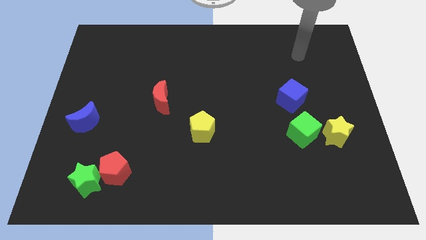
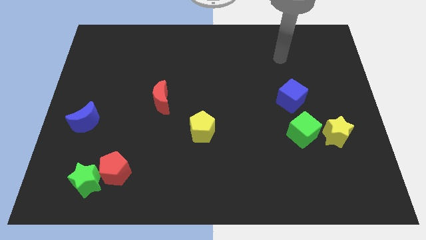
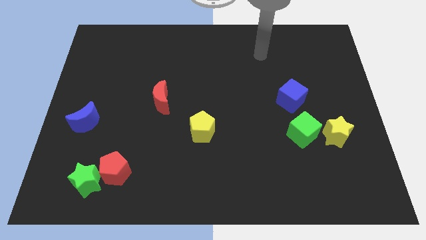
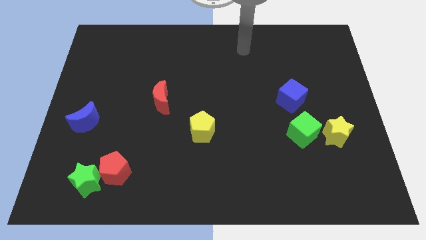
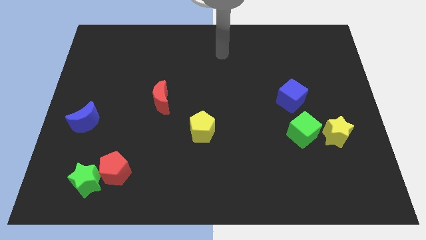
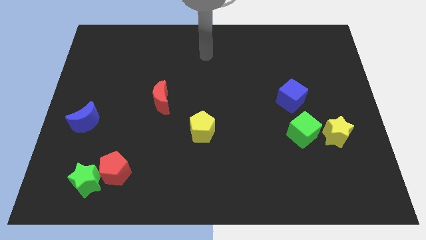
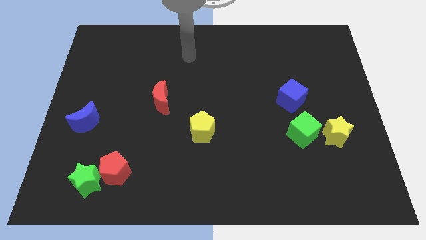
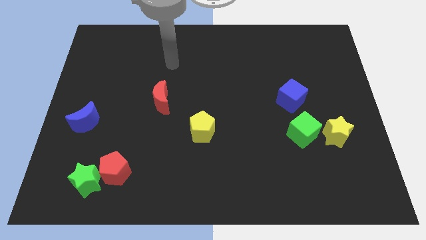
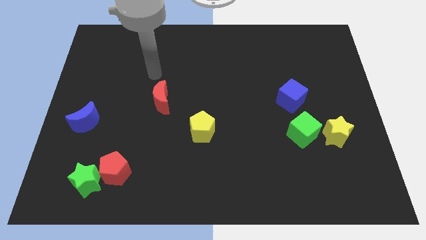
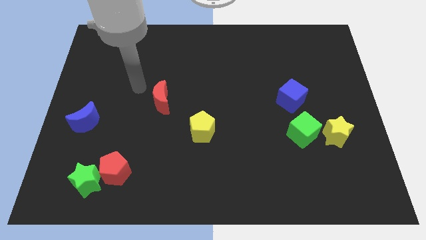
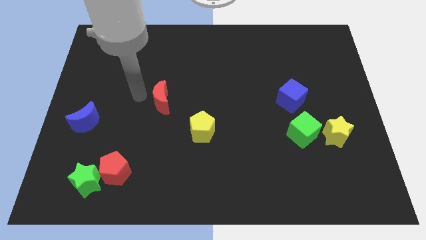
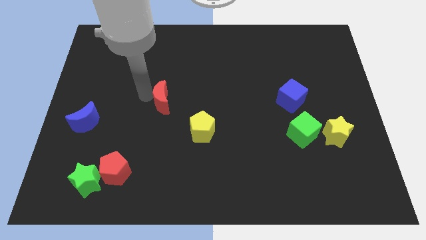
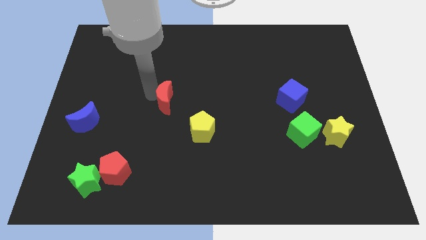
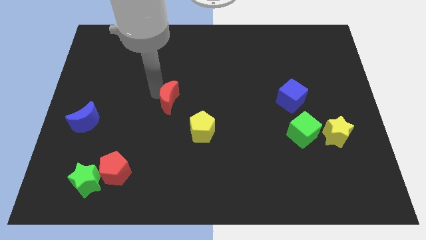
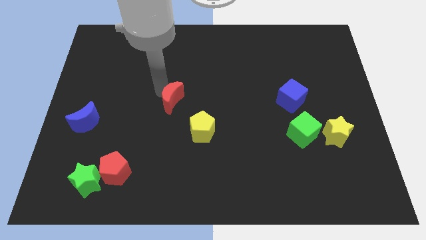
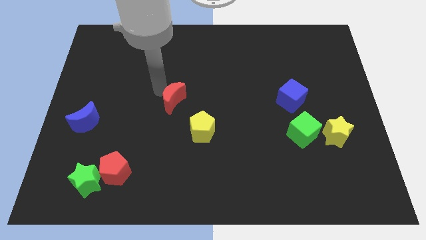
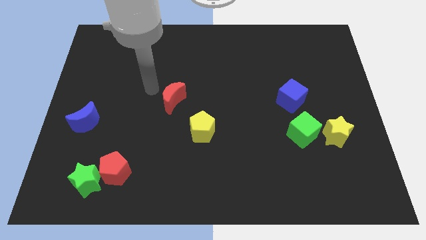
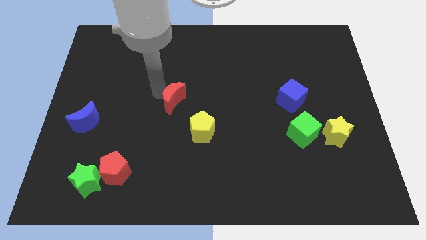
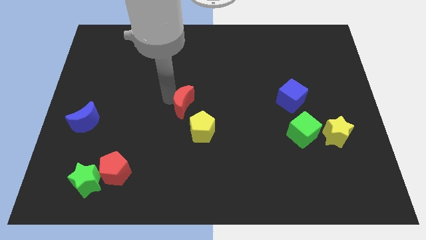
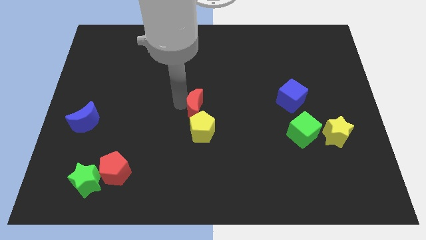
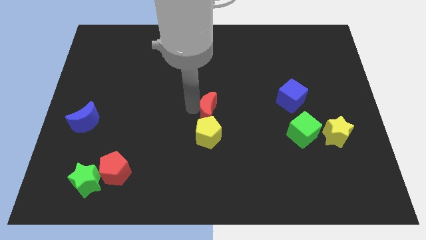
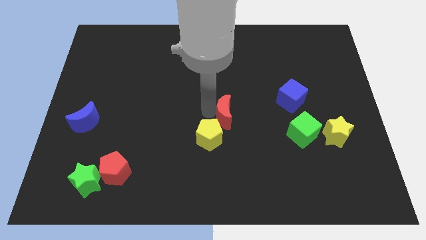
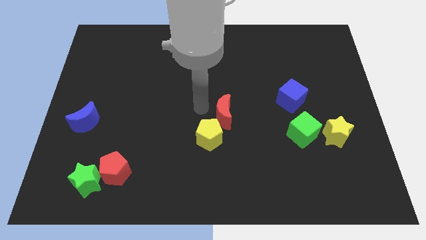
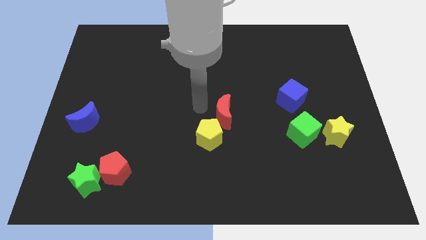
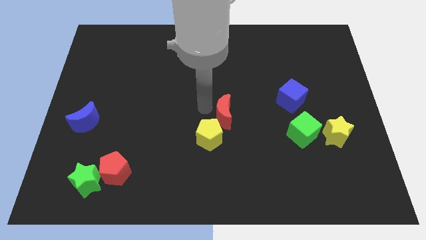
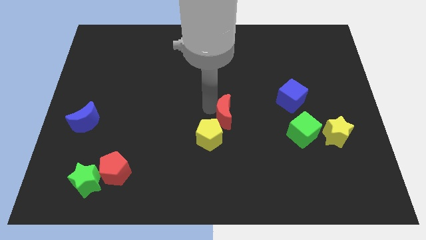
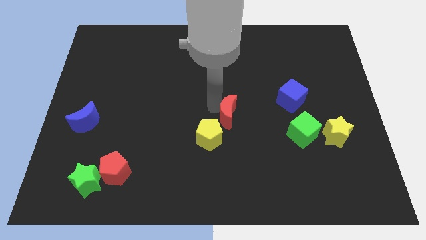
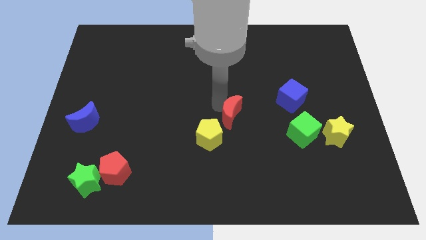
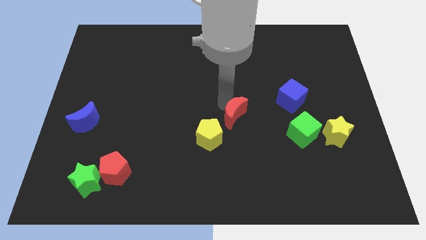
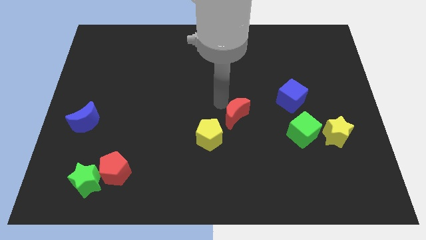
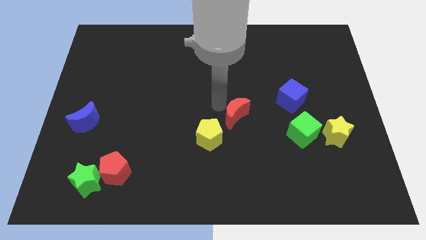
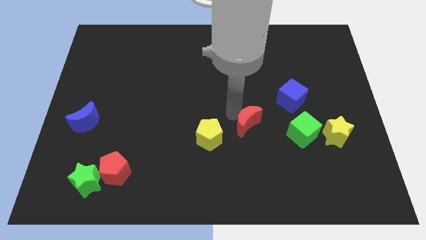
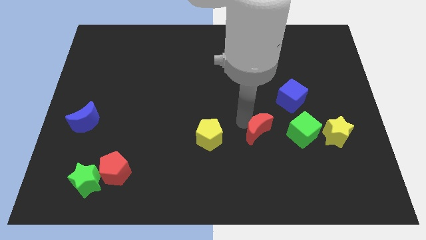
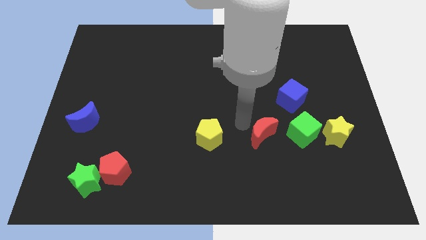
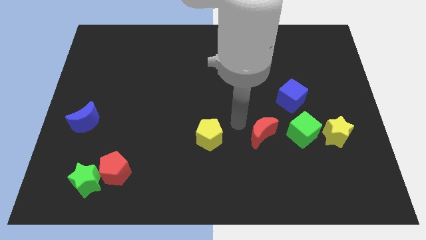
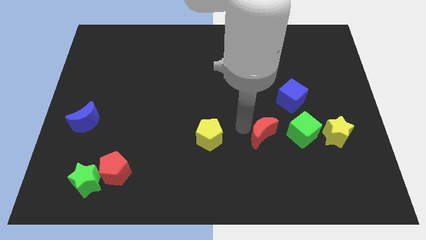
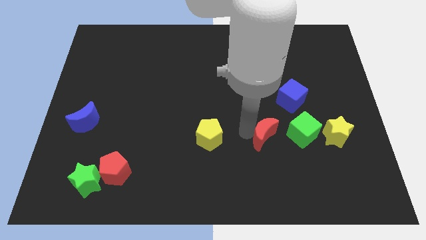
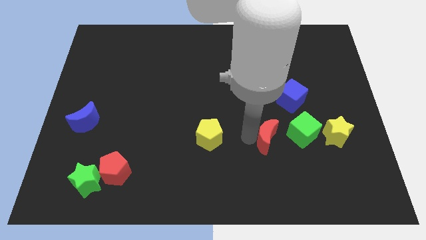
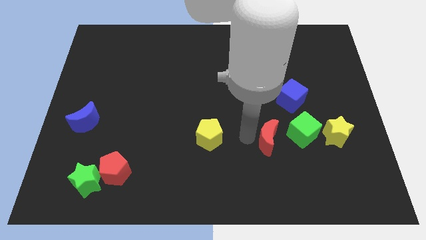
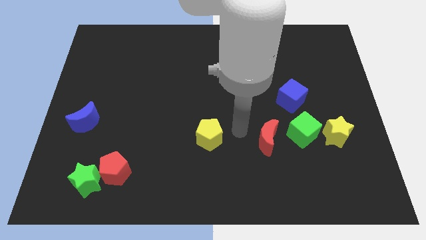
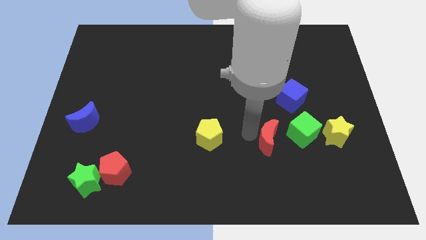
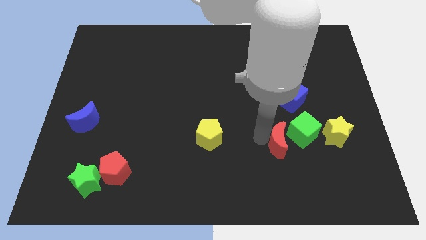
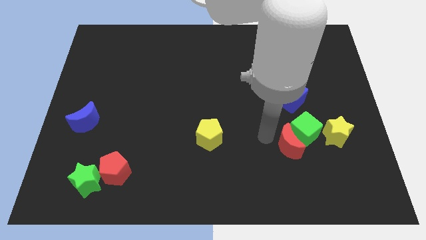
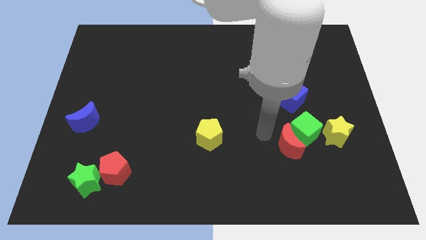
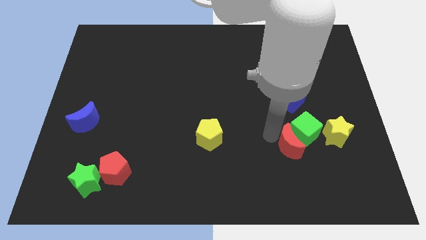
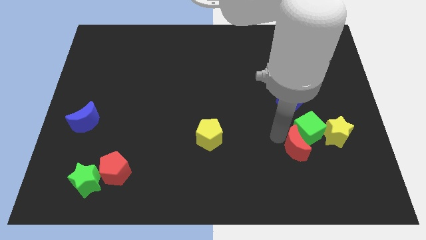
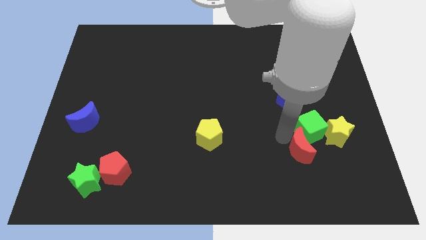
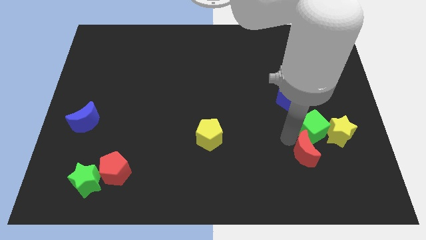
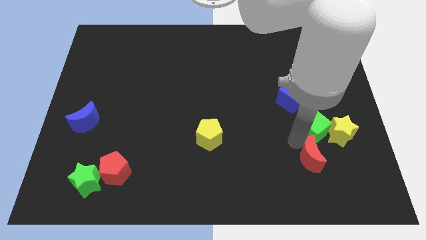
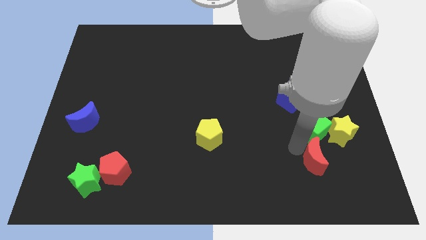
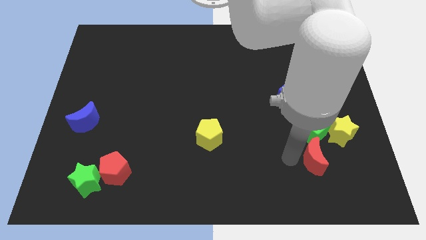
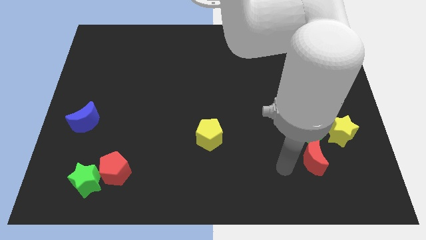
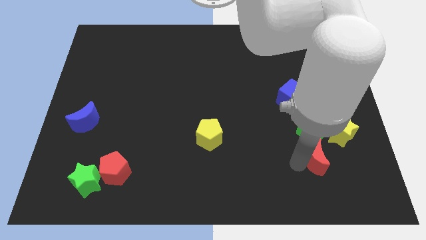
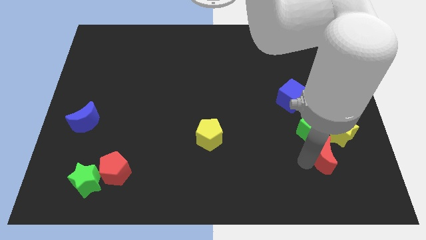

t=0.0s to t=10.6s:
put the red moon diagonally down and to the right of the green cube

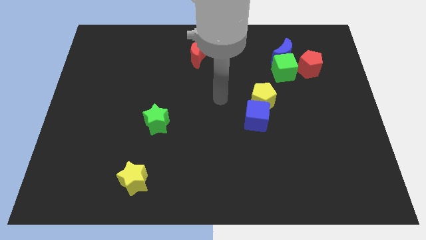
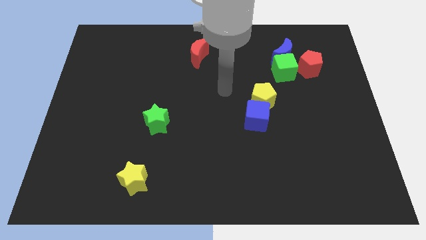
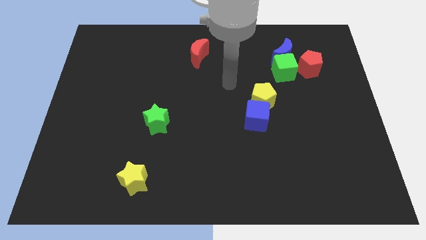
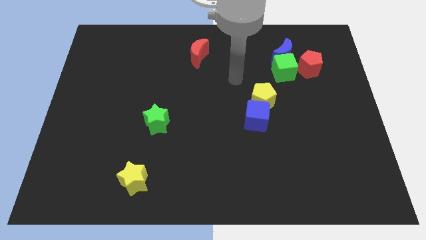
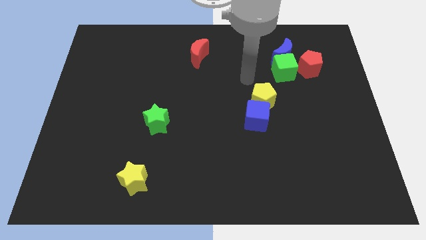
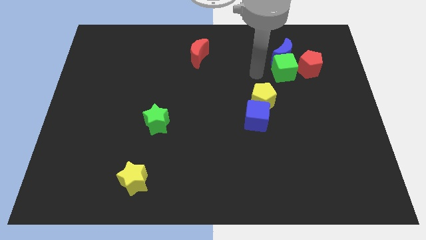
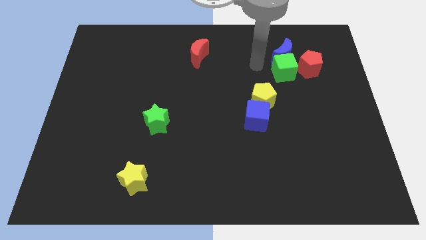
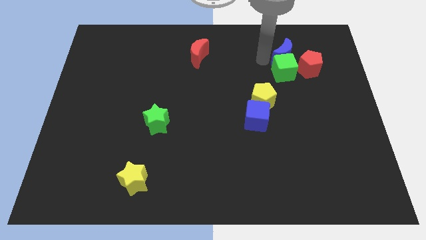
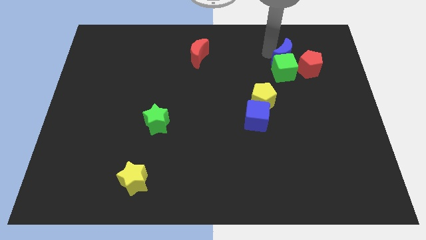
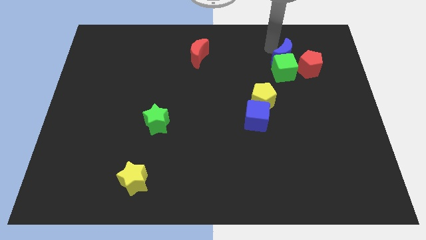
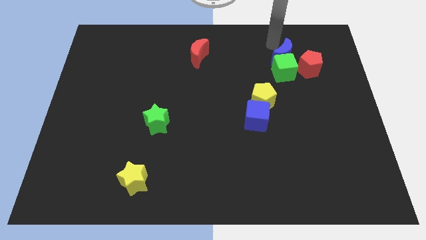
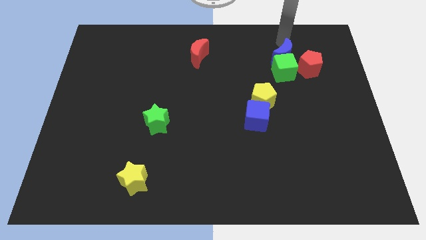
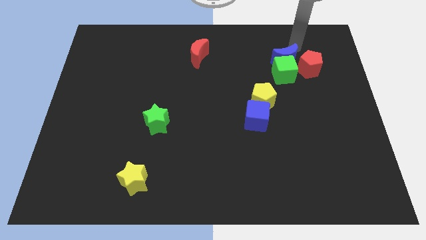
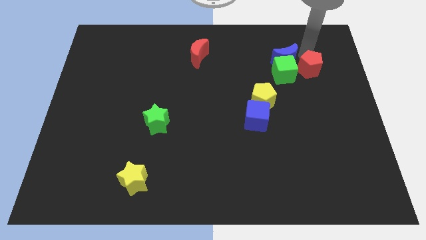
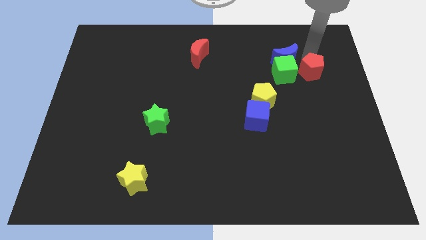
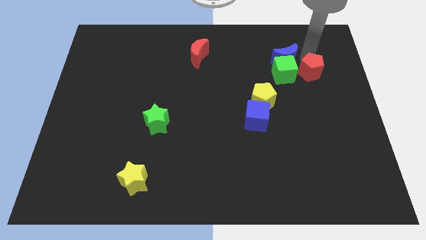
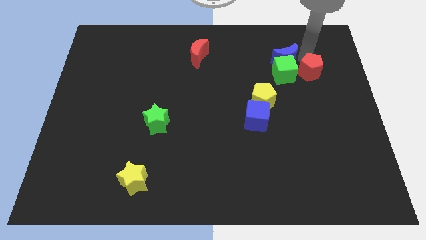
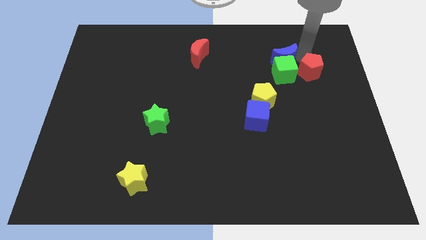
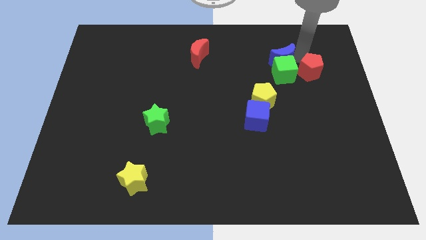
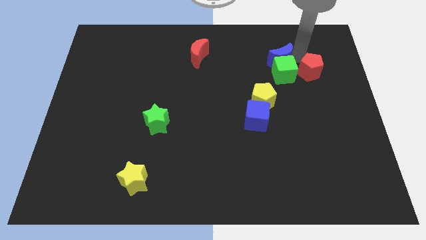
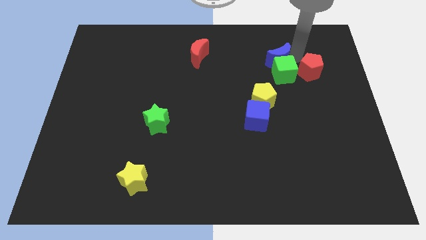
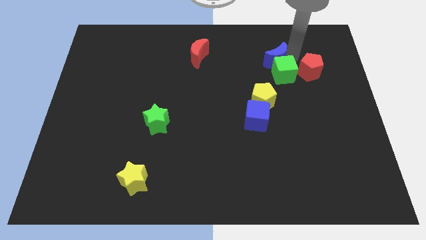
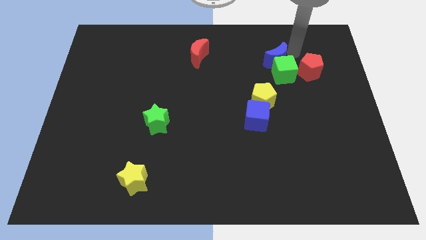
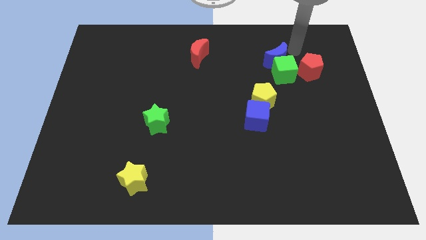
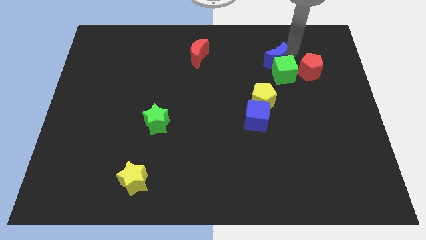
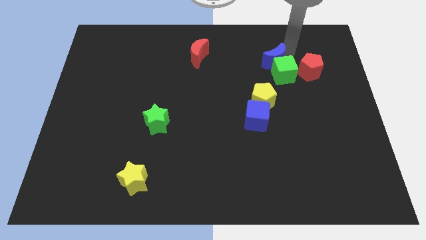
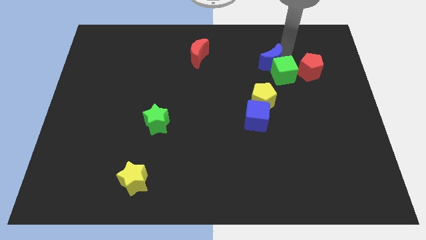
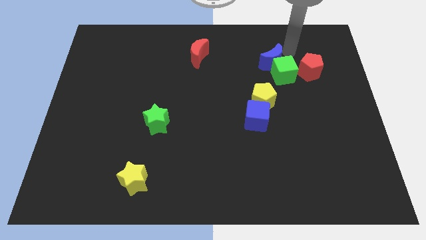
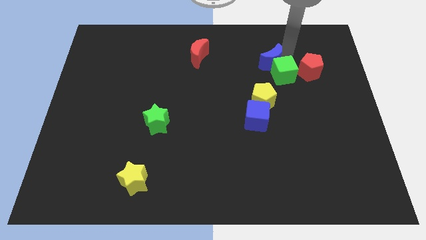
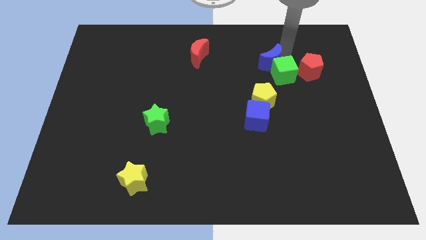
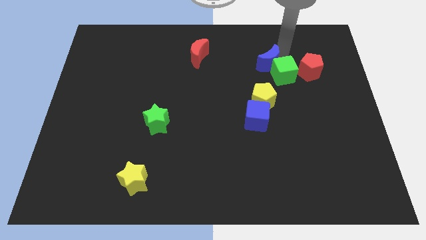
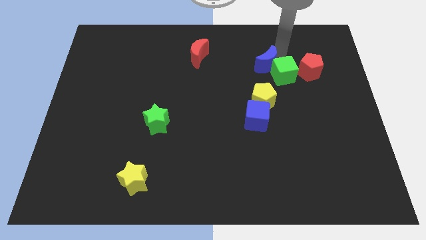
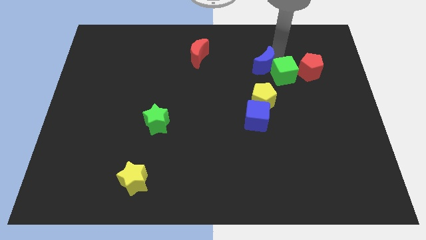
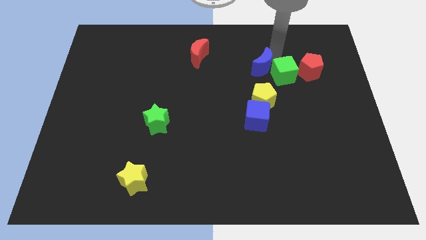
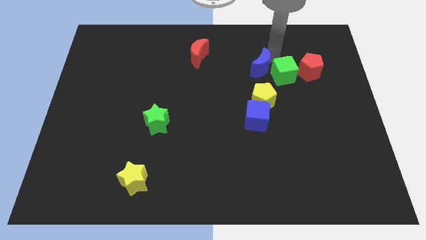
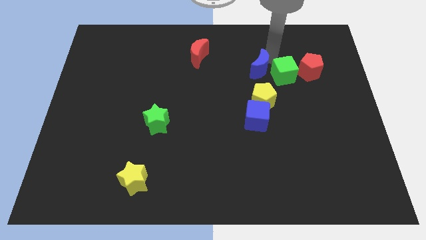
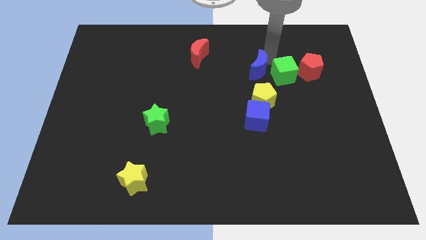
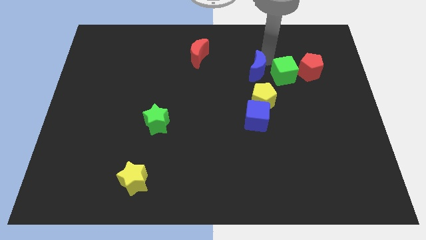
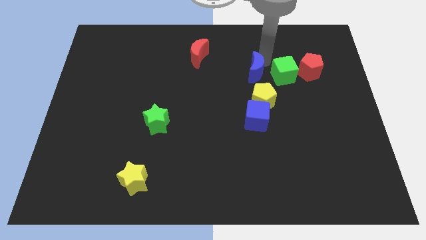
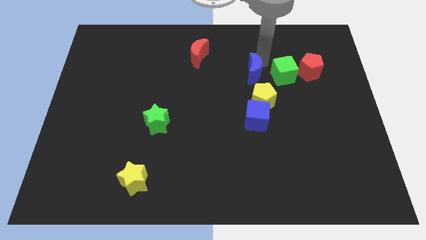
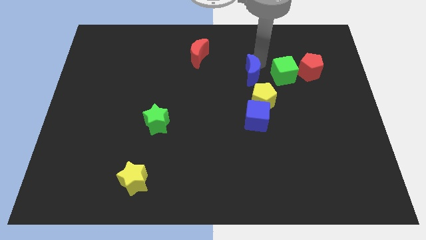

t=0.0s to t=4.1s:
push the blue moon diagonally up and to the left of the yellow pentagon
